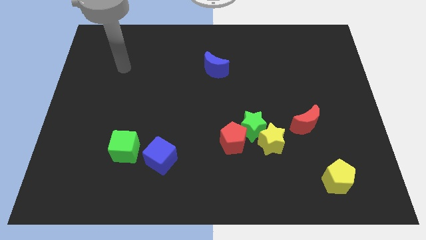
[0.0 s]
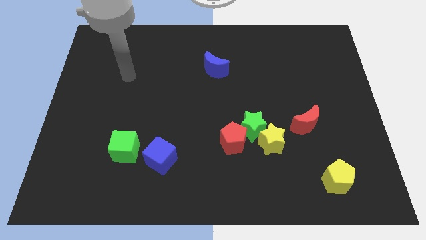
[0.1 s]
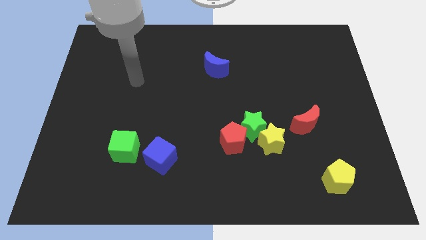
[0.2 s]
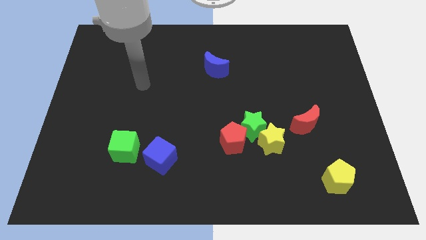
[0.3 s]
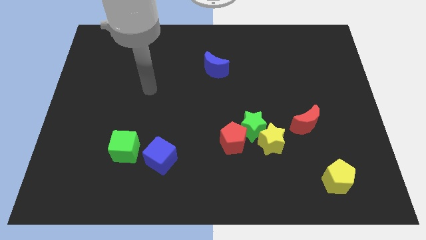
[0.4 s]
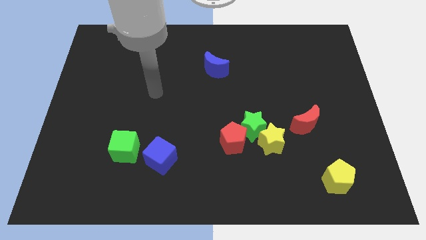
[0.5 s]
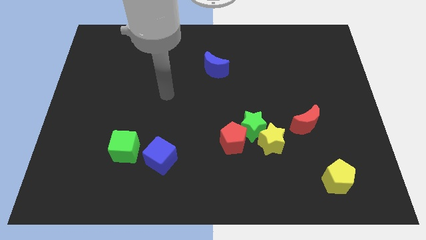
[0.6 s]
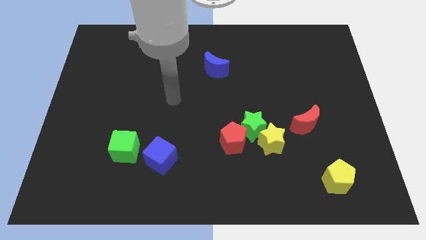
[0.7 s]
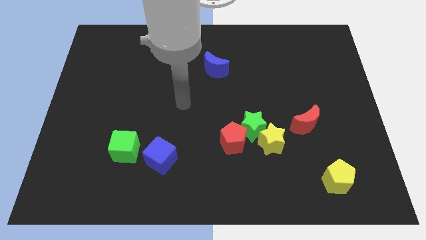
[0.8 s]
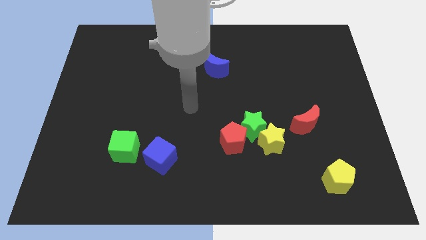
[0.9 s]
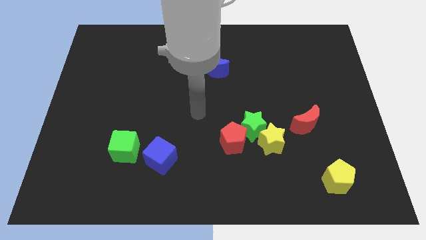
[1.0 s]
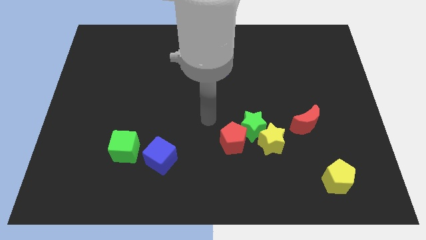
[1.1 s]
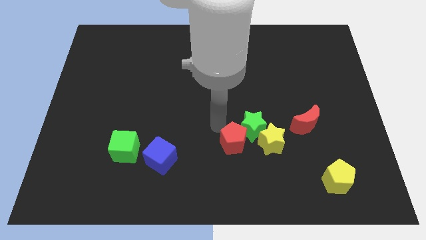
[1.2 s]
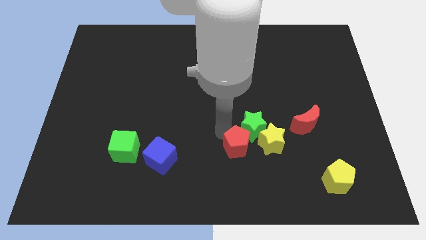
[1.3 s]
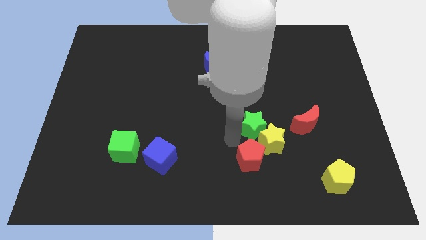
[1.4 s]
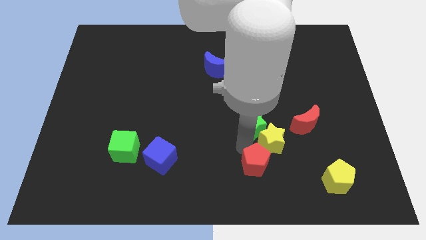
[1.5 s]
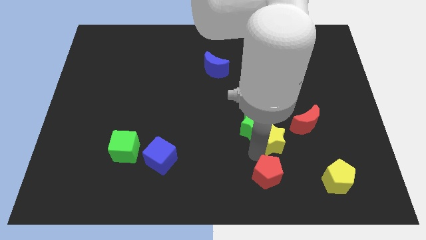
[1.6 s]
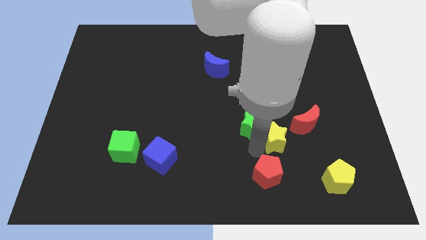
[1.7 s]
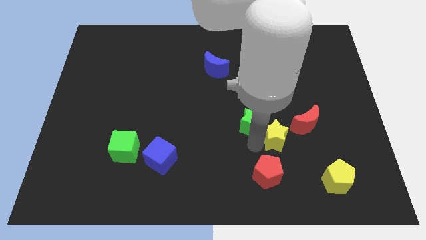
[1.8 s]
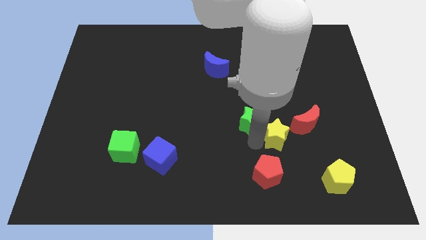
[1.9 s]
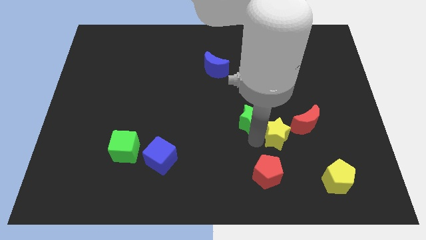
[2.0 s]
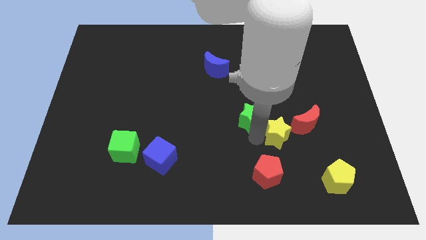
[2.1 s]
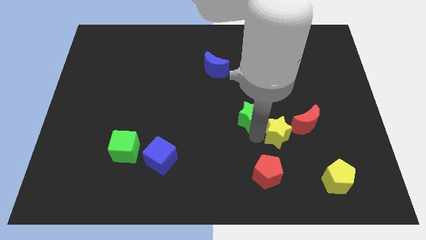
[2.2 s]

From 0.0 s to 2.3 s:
pull the green star apart from the red pentagon and yellow star

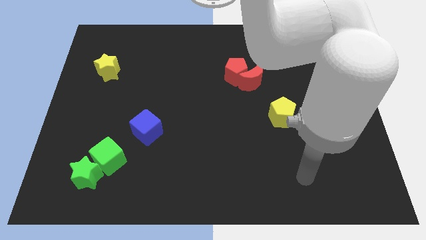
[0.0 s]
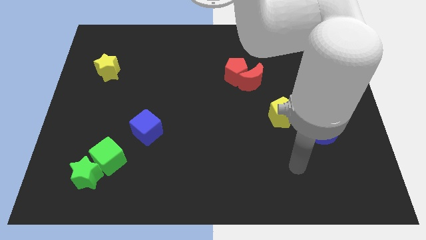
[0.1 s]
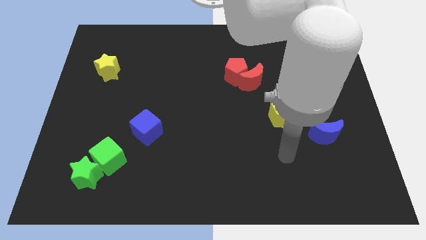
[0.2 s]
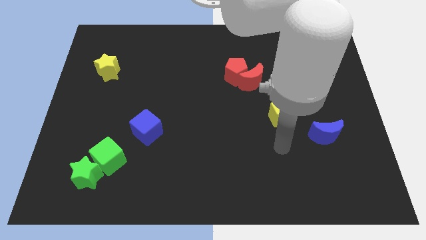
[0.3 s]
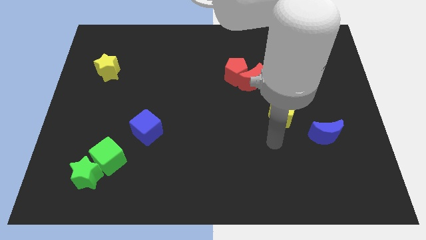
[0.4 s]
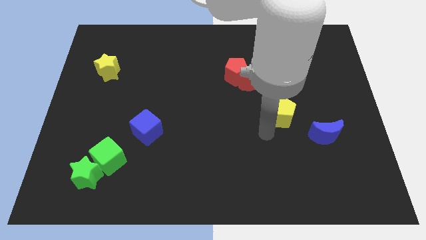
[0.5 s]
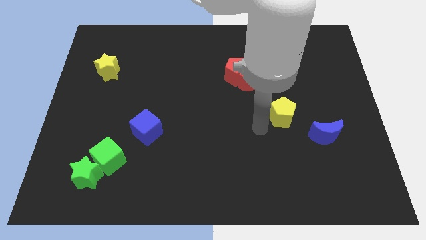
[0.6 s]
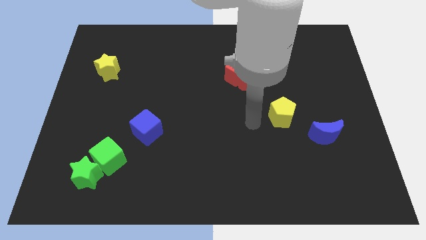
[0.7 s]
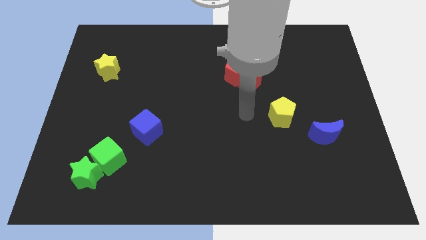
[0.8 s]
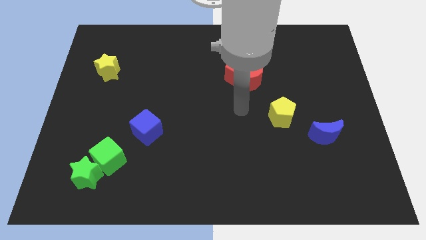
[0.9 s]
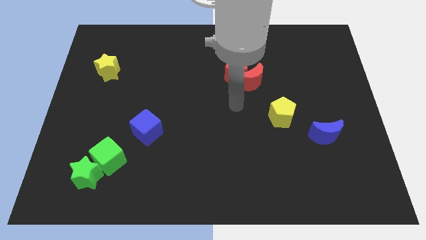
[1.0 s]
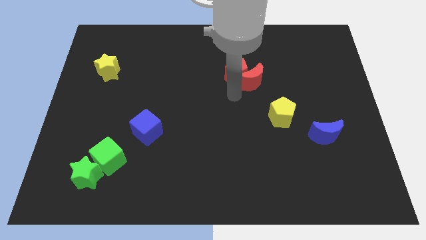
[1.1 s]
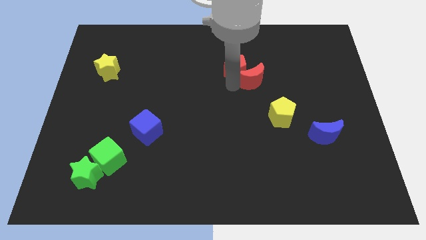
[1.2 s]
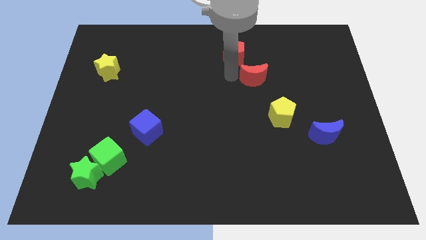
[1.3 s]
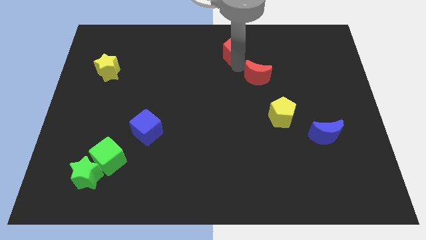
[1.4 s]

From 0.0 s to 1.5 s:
move the red moon away from the red pentagon

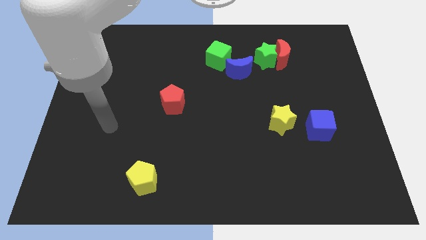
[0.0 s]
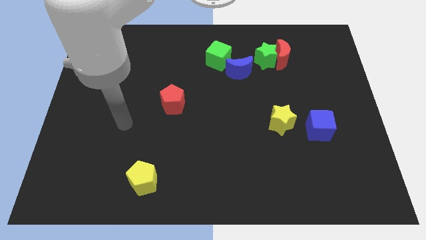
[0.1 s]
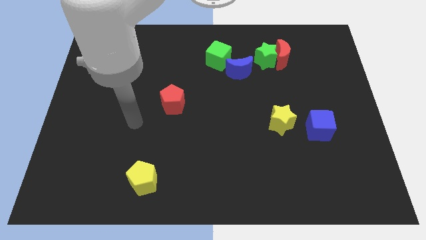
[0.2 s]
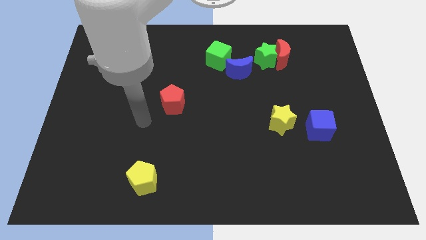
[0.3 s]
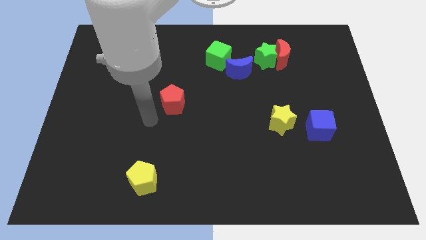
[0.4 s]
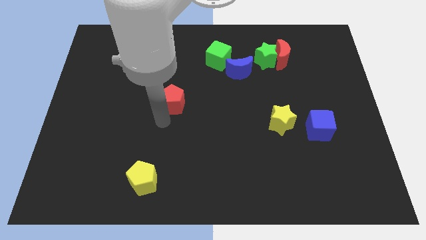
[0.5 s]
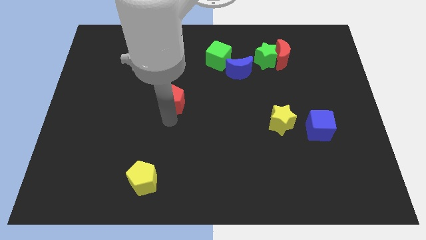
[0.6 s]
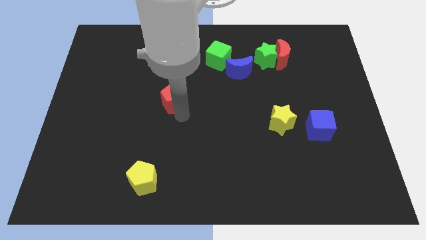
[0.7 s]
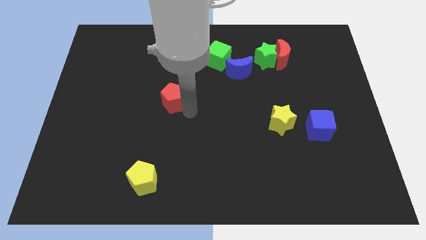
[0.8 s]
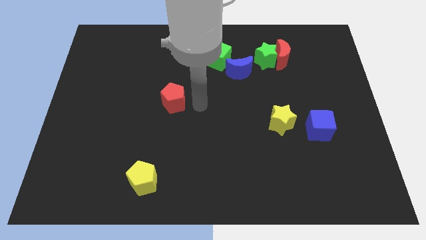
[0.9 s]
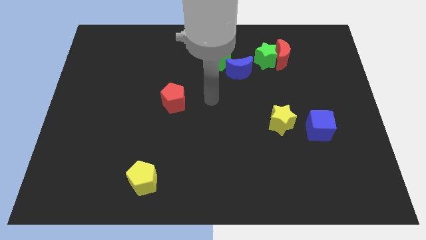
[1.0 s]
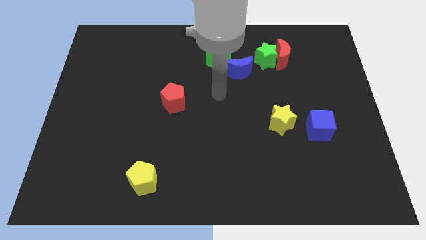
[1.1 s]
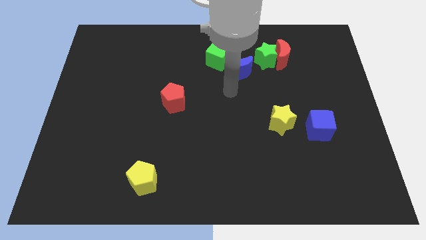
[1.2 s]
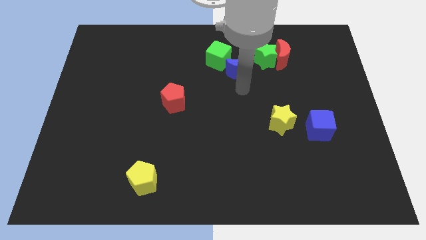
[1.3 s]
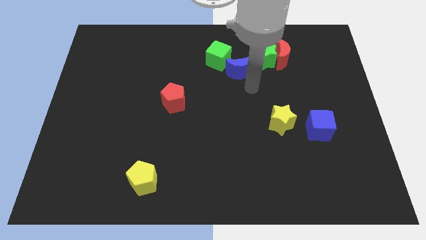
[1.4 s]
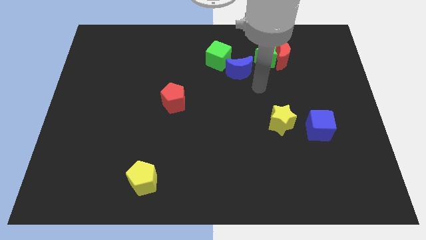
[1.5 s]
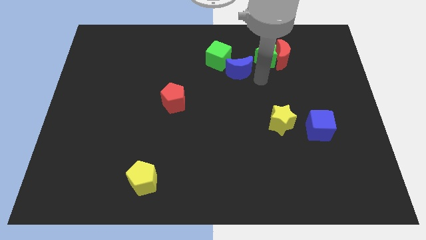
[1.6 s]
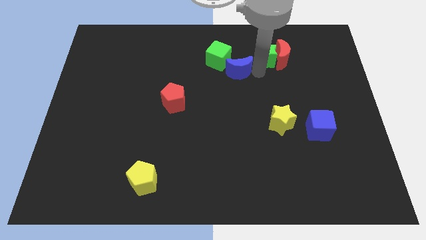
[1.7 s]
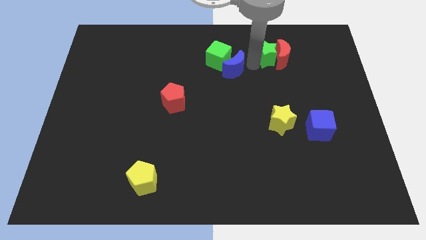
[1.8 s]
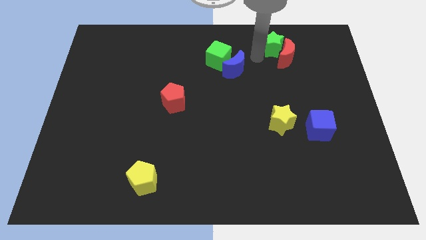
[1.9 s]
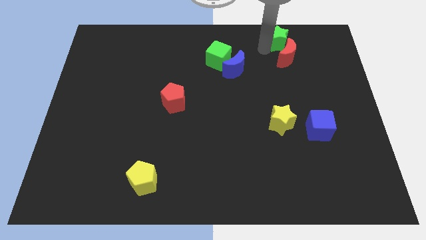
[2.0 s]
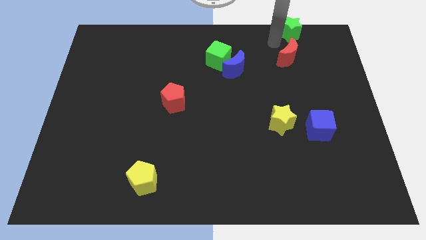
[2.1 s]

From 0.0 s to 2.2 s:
move the red moon away from the green star

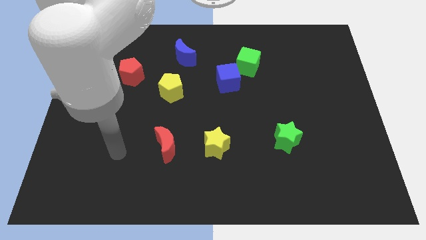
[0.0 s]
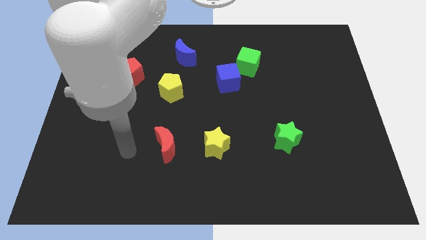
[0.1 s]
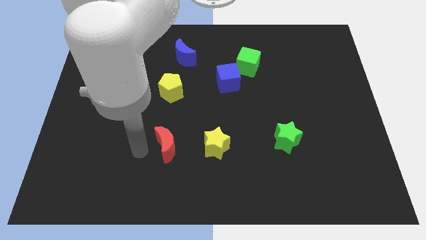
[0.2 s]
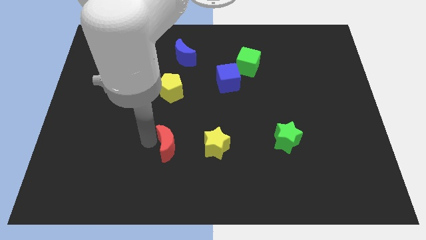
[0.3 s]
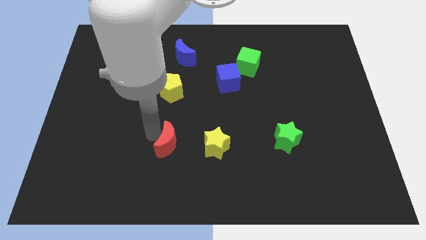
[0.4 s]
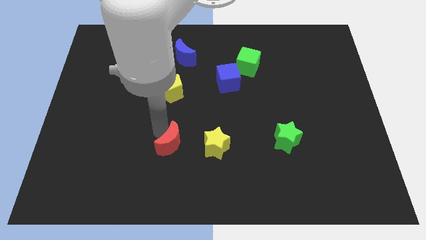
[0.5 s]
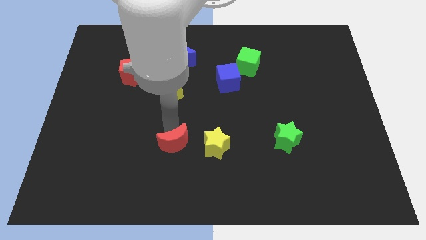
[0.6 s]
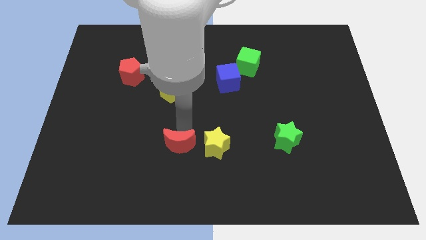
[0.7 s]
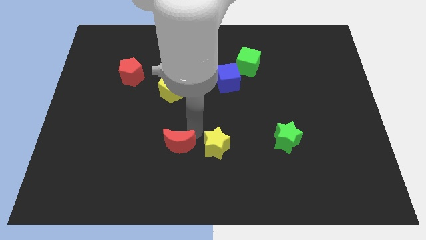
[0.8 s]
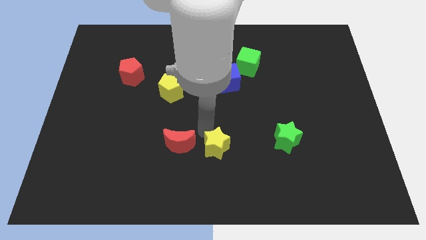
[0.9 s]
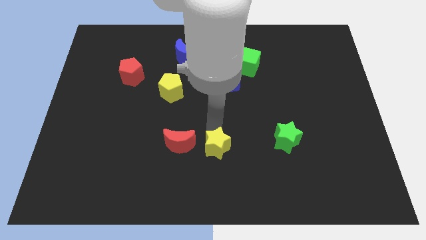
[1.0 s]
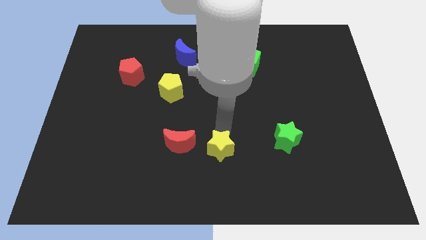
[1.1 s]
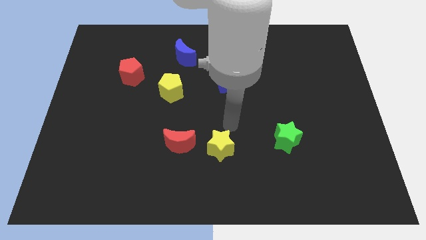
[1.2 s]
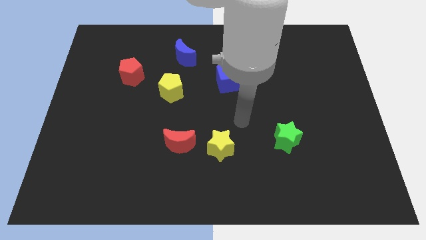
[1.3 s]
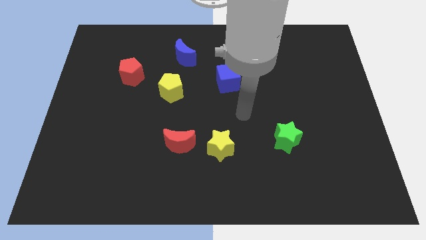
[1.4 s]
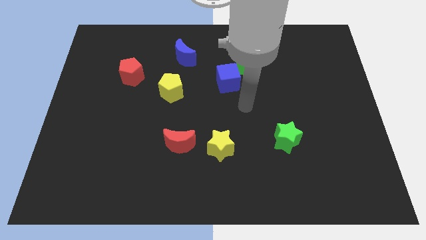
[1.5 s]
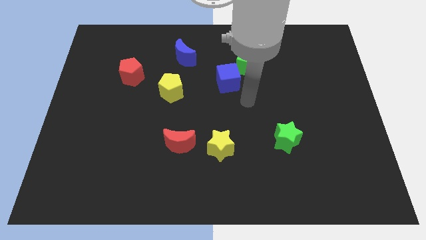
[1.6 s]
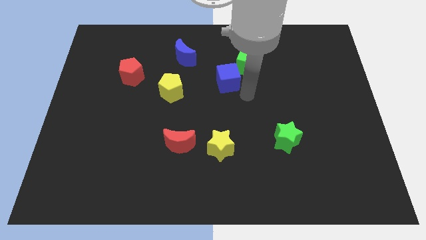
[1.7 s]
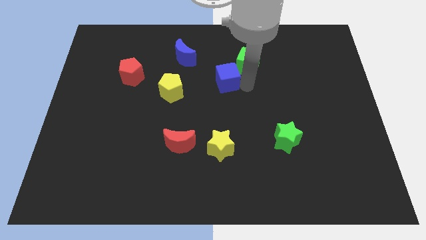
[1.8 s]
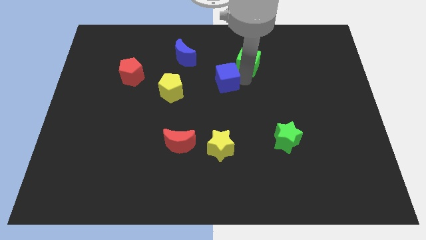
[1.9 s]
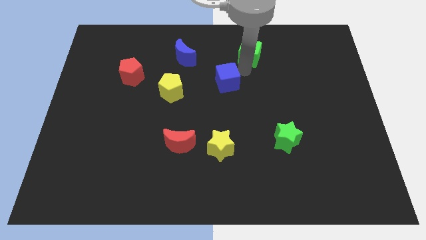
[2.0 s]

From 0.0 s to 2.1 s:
pull the blue cube apart from the green cube

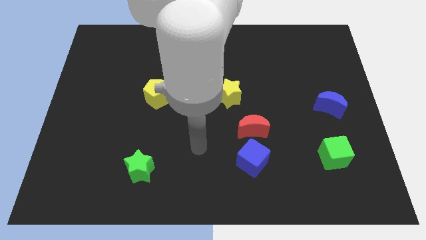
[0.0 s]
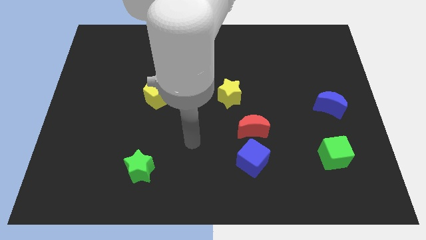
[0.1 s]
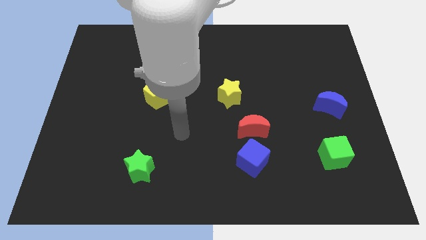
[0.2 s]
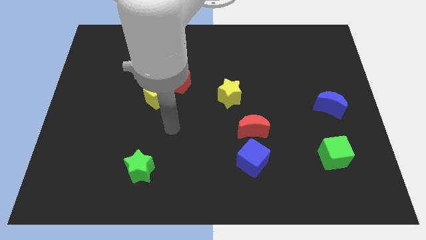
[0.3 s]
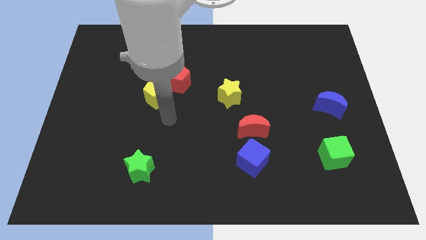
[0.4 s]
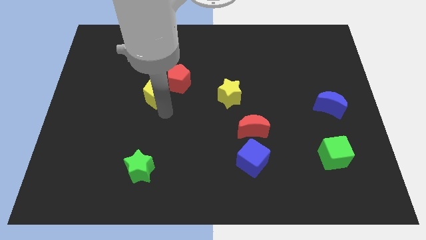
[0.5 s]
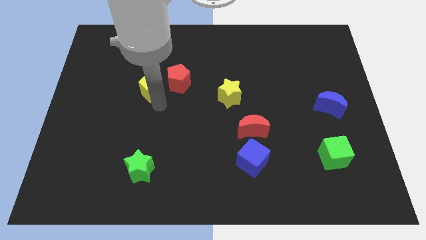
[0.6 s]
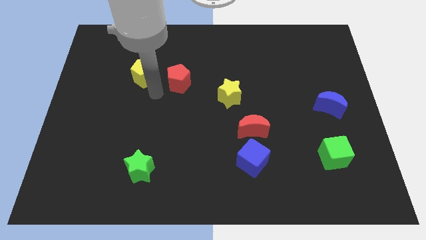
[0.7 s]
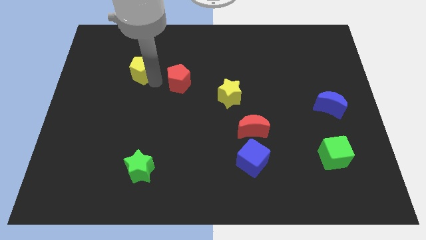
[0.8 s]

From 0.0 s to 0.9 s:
separate the red pentagon from the yellow pentagon

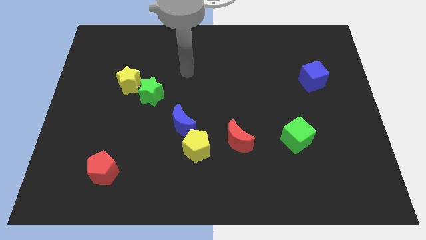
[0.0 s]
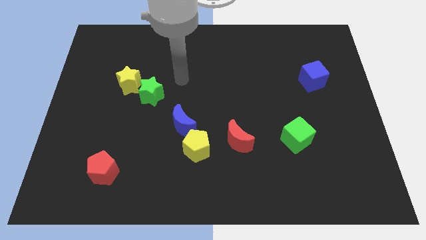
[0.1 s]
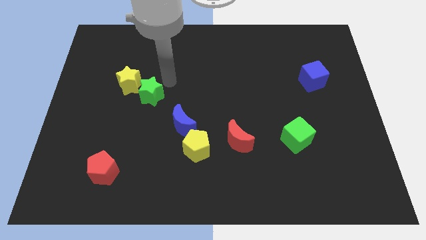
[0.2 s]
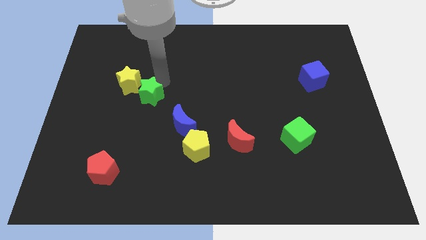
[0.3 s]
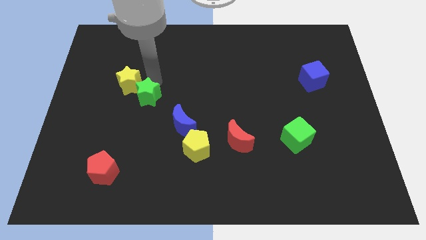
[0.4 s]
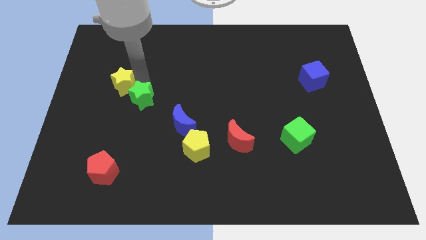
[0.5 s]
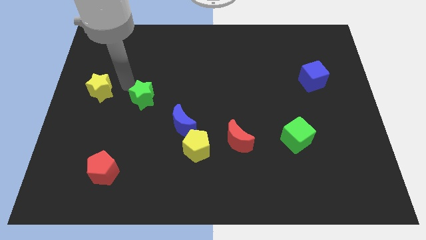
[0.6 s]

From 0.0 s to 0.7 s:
pull the green star apart from the yellow star
